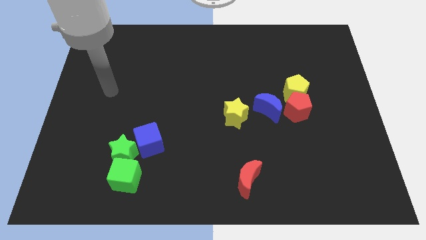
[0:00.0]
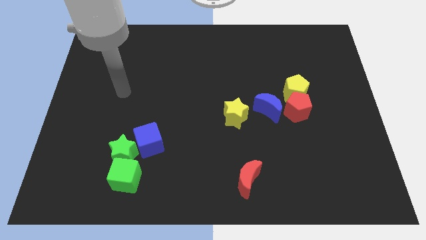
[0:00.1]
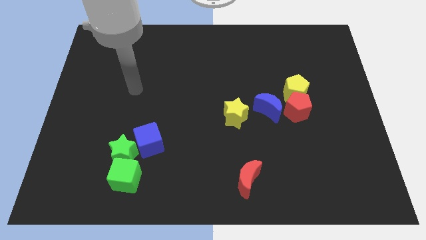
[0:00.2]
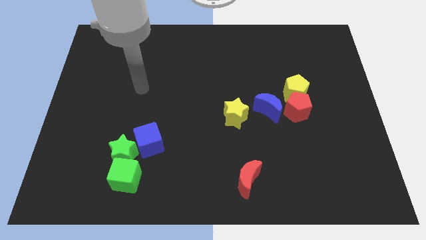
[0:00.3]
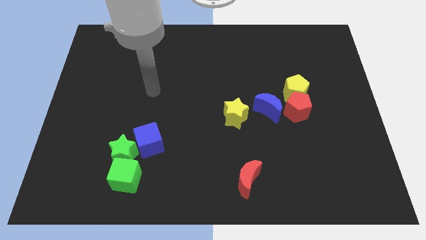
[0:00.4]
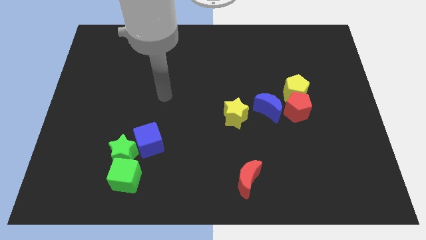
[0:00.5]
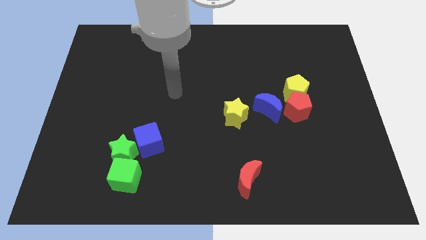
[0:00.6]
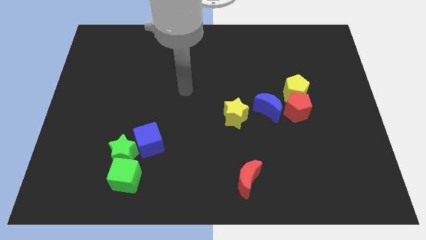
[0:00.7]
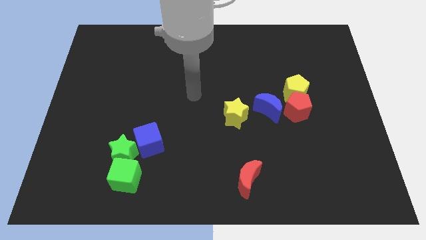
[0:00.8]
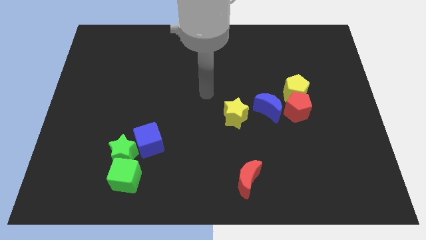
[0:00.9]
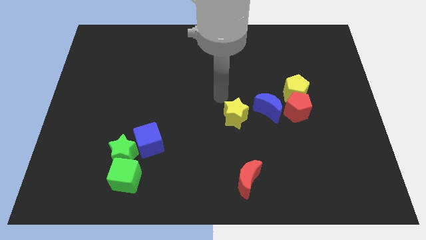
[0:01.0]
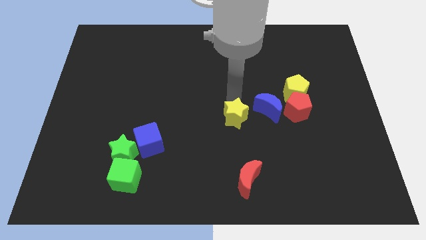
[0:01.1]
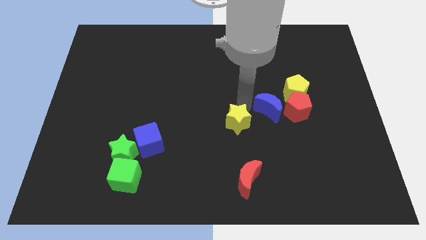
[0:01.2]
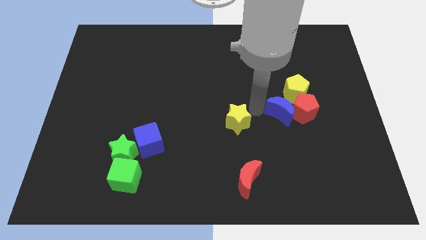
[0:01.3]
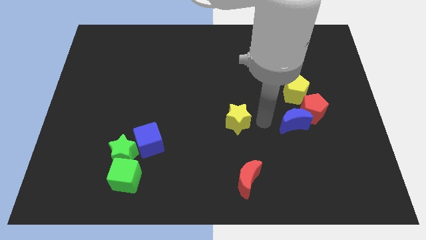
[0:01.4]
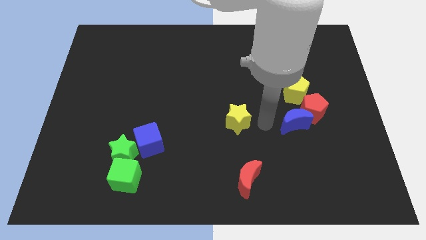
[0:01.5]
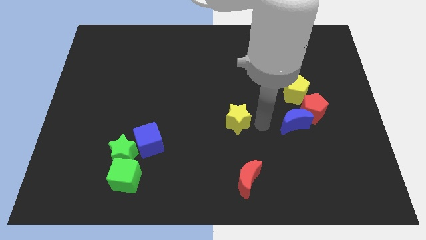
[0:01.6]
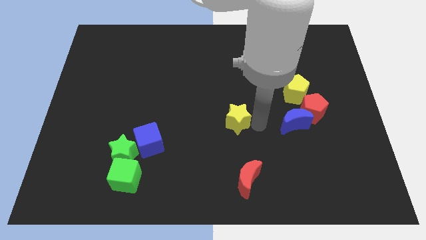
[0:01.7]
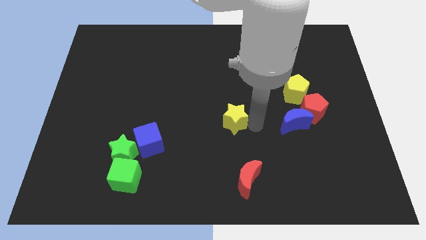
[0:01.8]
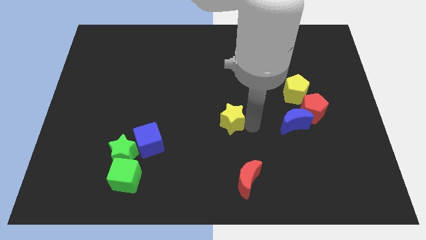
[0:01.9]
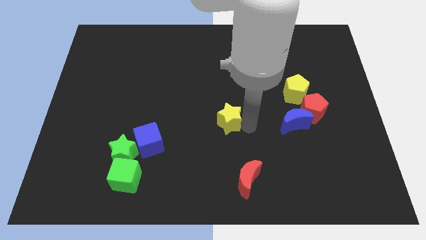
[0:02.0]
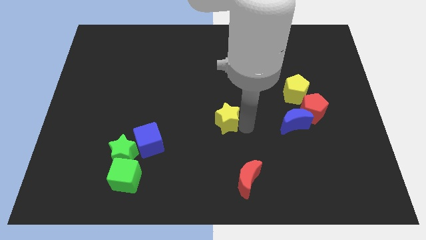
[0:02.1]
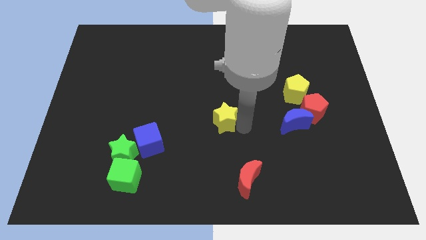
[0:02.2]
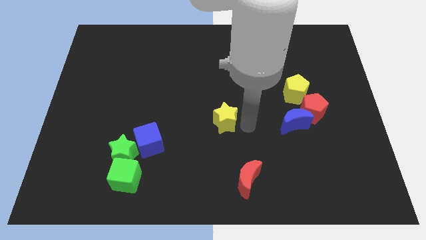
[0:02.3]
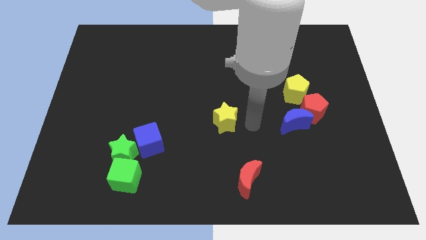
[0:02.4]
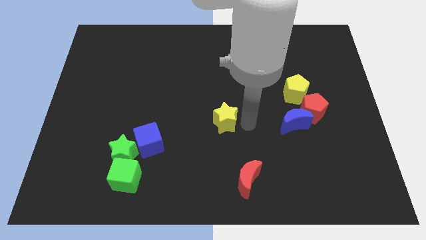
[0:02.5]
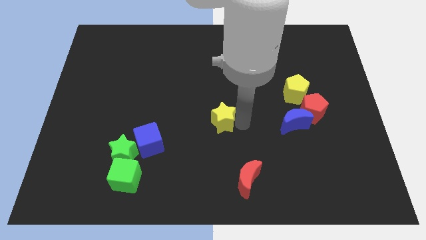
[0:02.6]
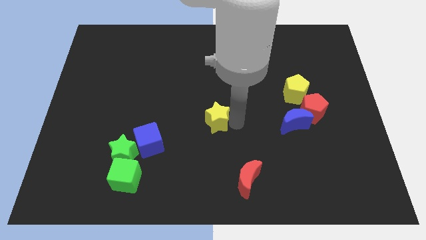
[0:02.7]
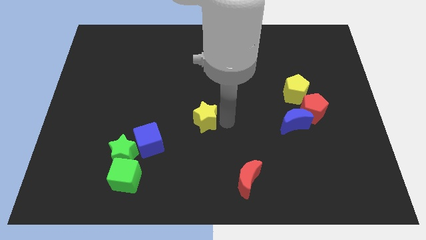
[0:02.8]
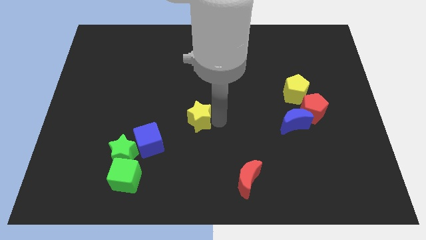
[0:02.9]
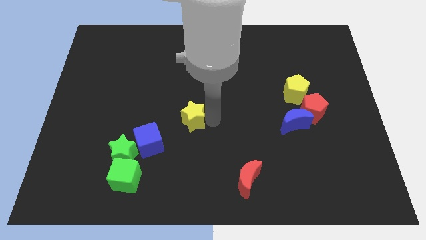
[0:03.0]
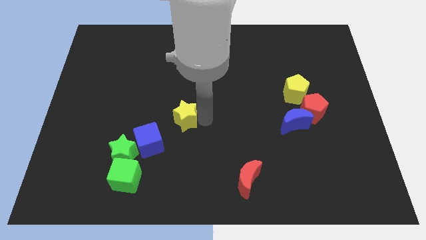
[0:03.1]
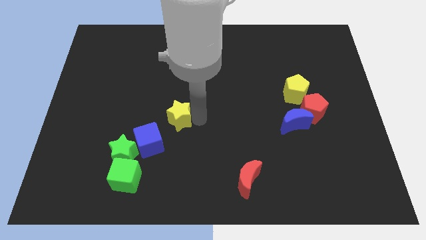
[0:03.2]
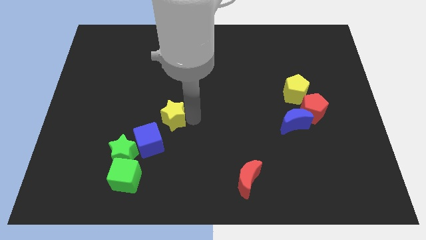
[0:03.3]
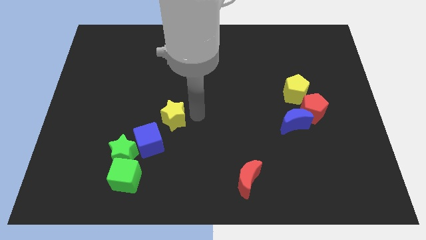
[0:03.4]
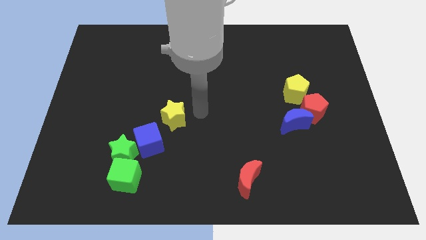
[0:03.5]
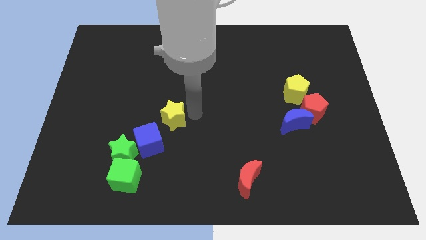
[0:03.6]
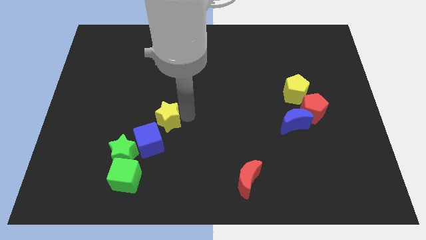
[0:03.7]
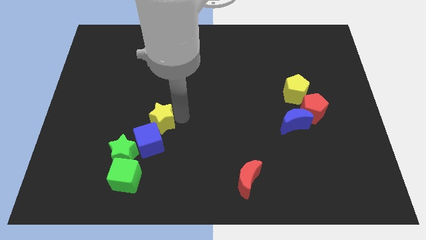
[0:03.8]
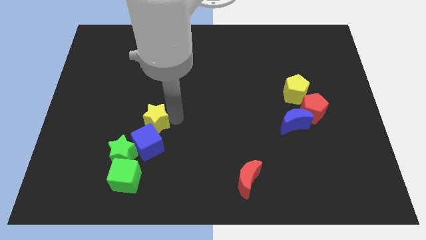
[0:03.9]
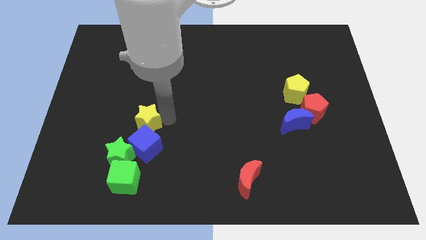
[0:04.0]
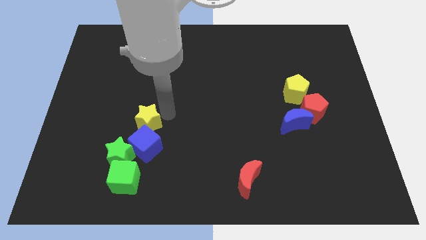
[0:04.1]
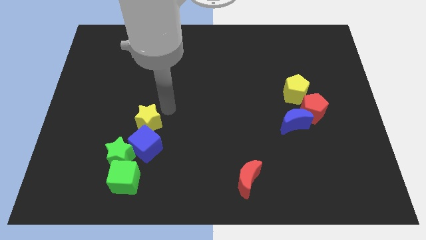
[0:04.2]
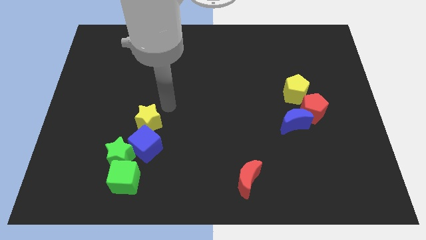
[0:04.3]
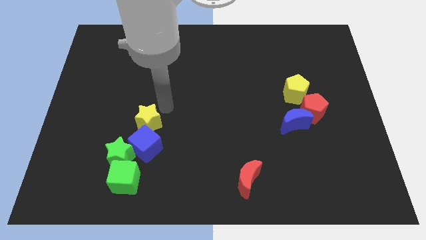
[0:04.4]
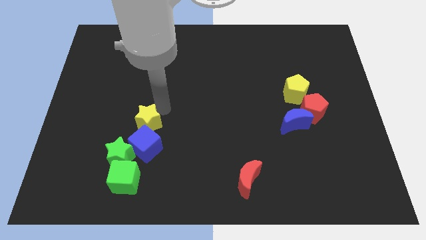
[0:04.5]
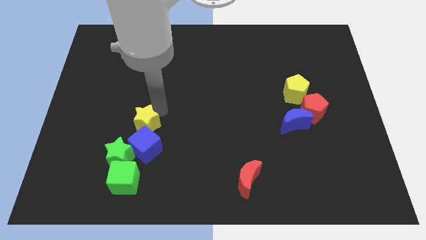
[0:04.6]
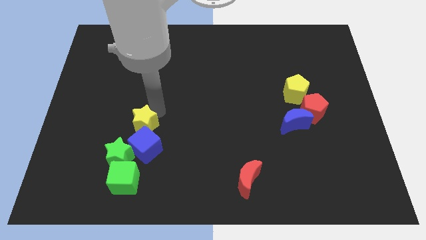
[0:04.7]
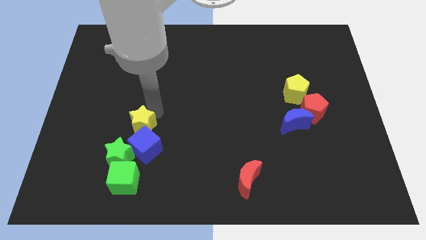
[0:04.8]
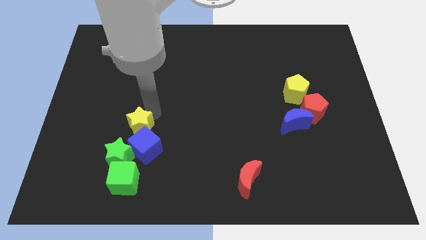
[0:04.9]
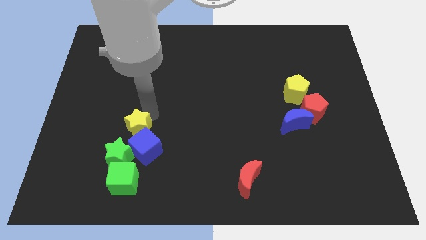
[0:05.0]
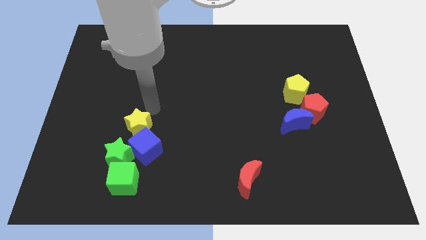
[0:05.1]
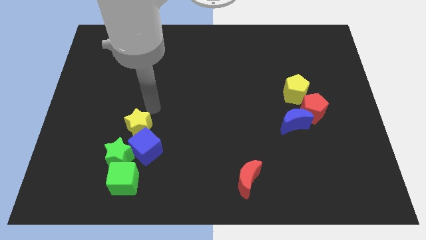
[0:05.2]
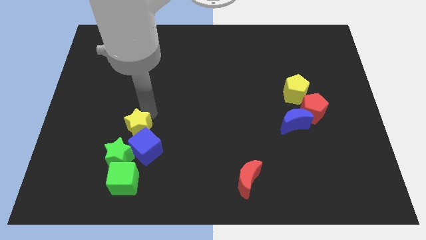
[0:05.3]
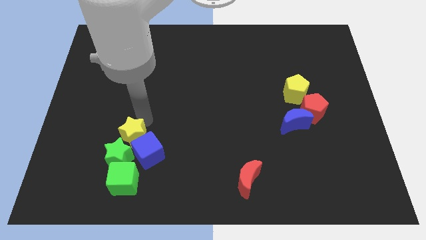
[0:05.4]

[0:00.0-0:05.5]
move the yellow star towards the green star

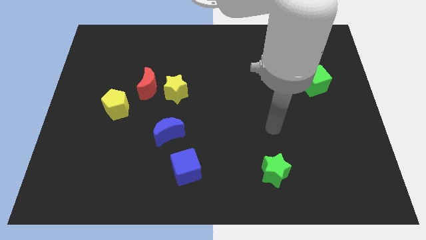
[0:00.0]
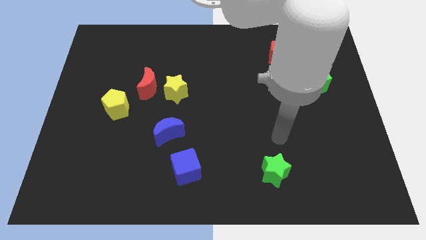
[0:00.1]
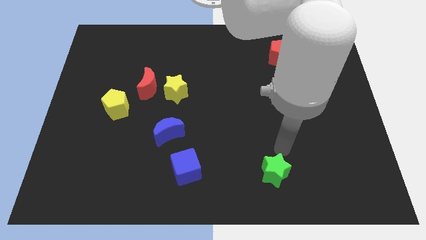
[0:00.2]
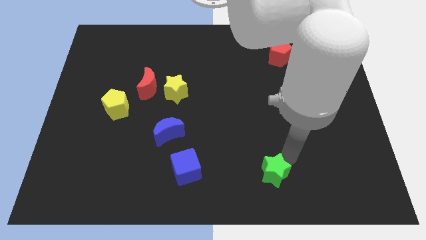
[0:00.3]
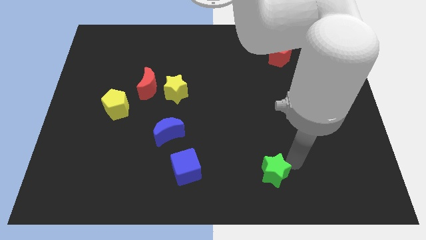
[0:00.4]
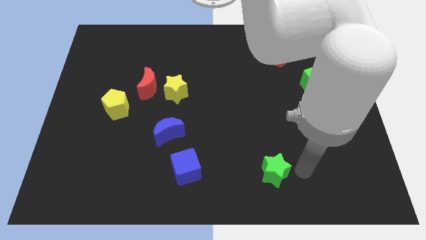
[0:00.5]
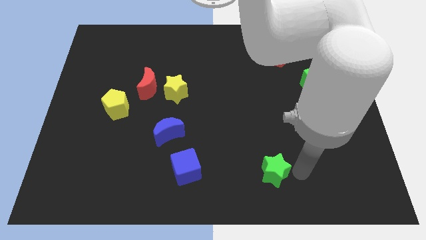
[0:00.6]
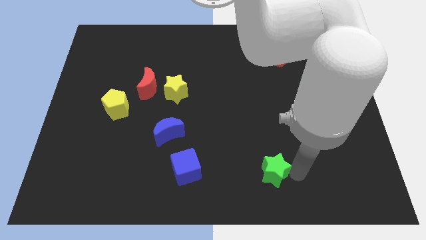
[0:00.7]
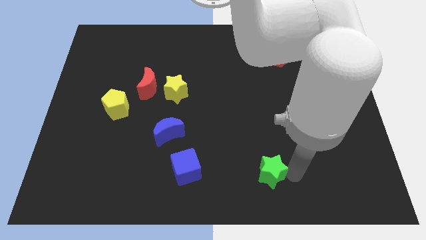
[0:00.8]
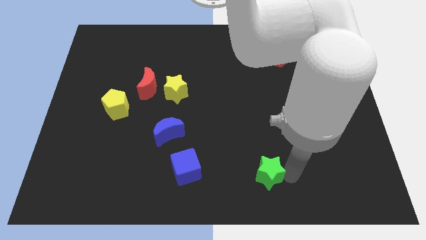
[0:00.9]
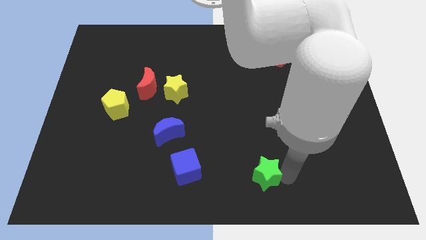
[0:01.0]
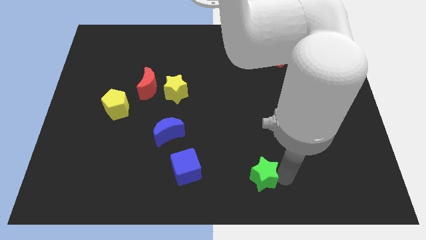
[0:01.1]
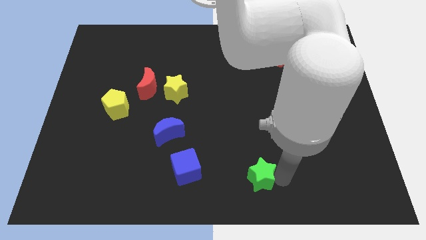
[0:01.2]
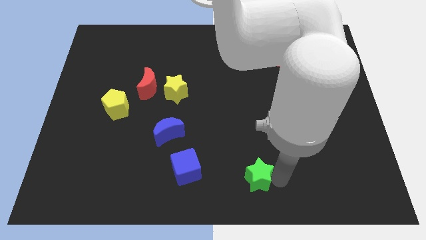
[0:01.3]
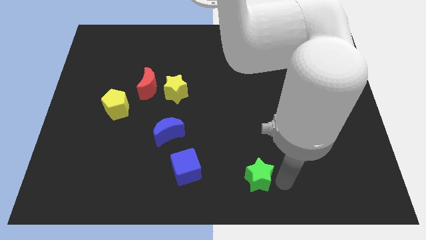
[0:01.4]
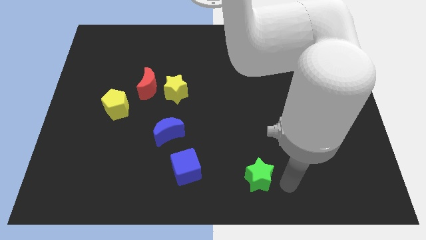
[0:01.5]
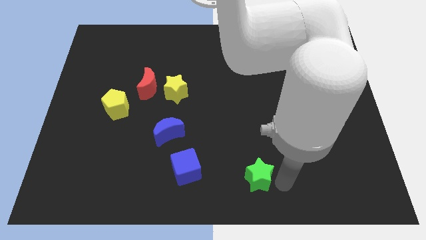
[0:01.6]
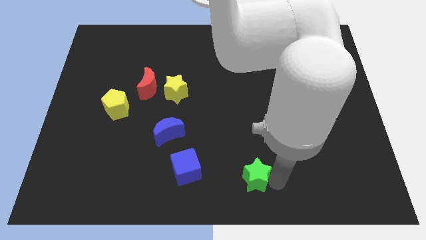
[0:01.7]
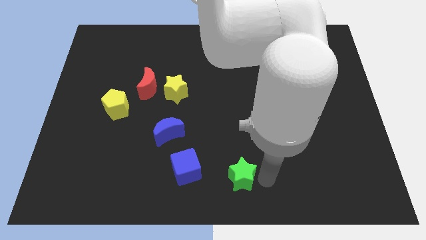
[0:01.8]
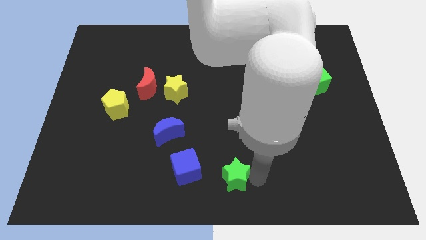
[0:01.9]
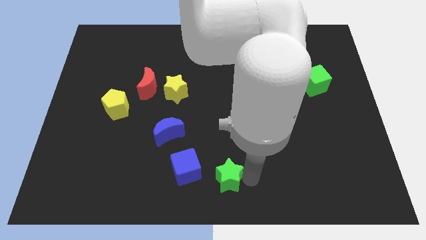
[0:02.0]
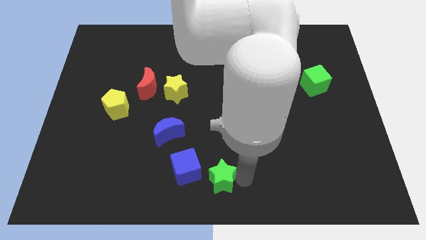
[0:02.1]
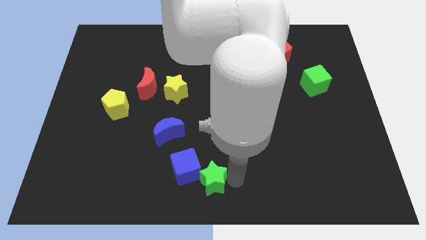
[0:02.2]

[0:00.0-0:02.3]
put the green star towards the blue cube
